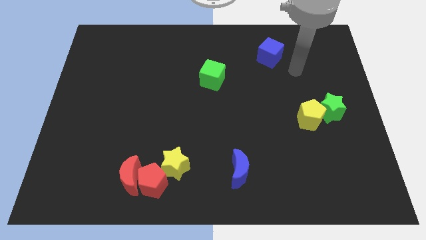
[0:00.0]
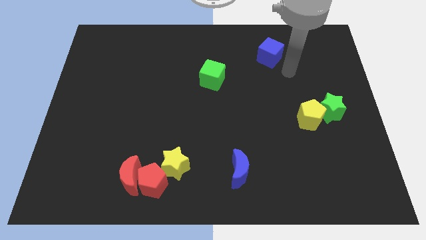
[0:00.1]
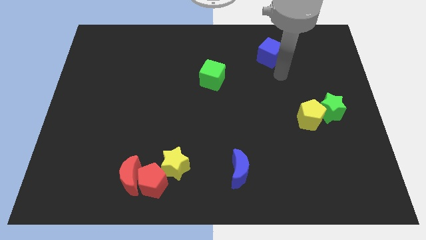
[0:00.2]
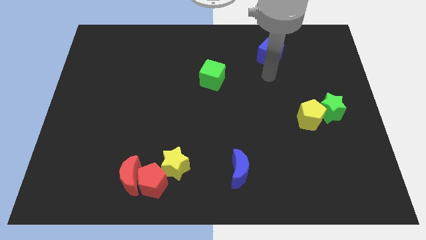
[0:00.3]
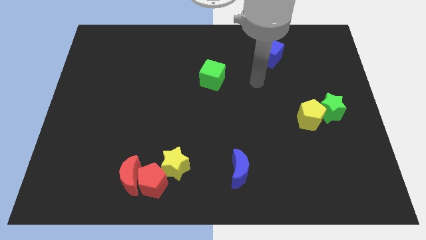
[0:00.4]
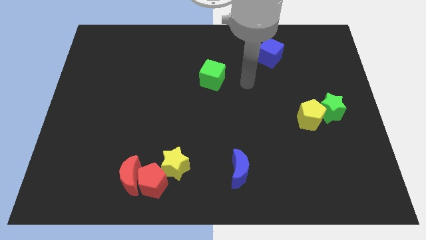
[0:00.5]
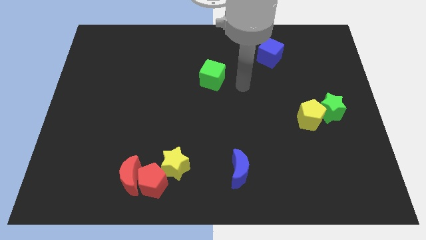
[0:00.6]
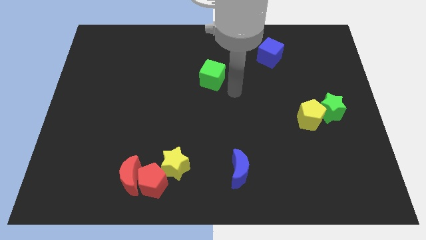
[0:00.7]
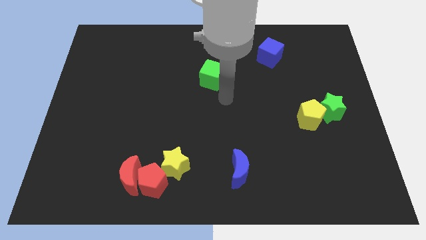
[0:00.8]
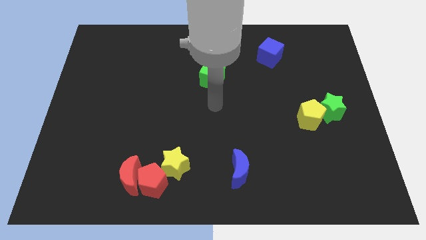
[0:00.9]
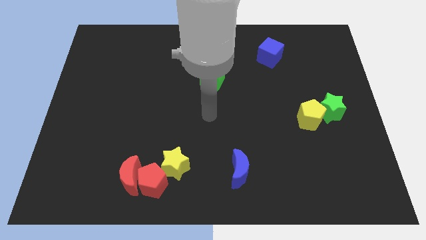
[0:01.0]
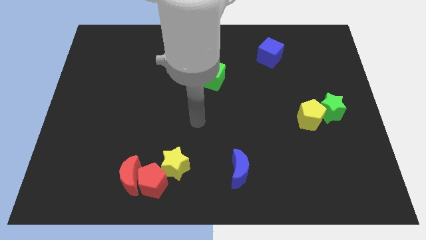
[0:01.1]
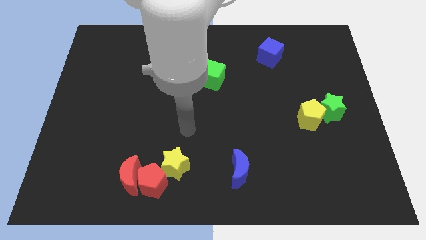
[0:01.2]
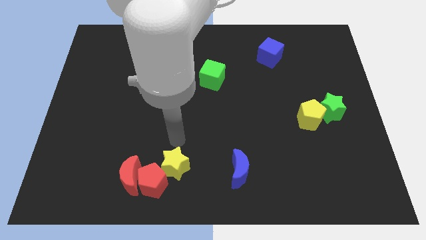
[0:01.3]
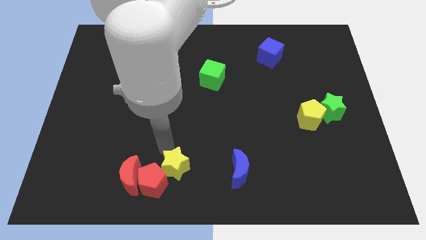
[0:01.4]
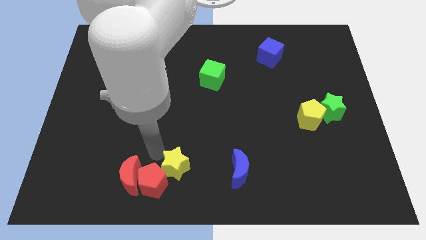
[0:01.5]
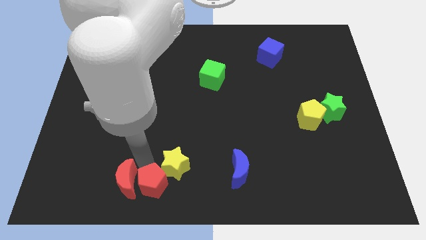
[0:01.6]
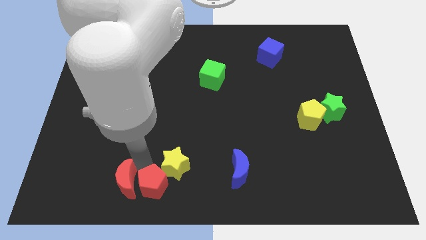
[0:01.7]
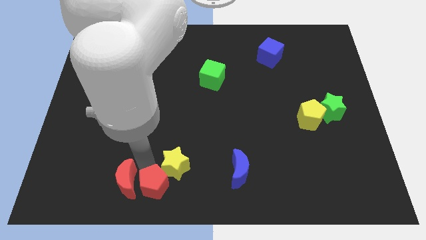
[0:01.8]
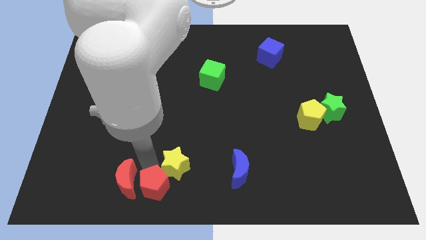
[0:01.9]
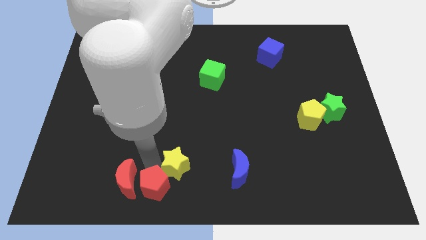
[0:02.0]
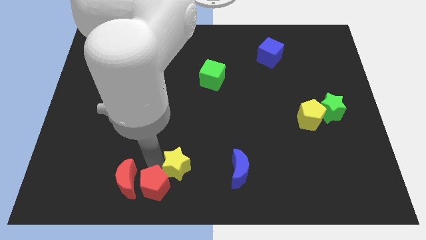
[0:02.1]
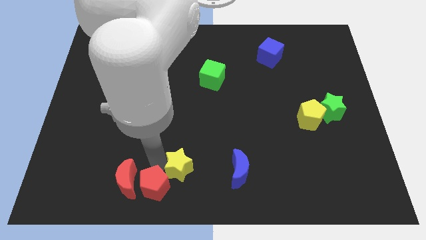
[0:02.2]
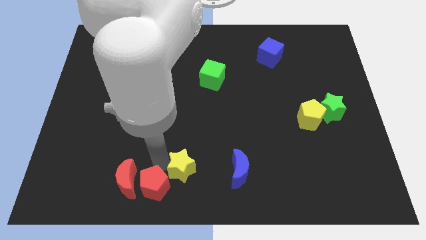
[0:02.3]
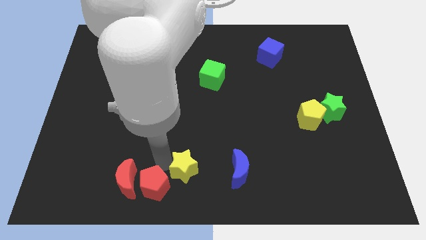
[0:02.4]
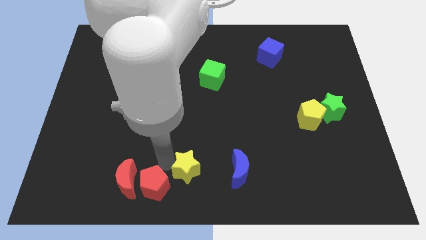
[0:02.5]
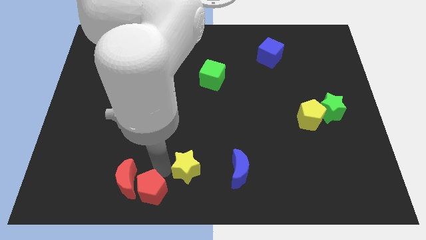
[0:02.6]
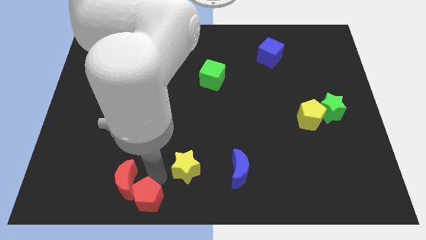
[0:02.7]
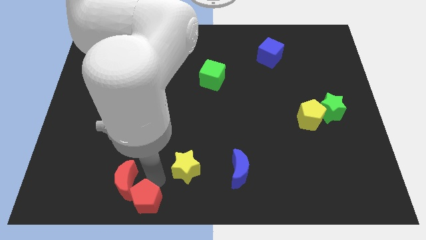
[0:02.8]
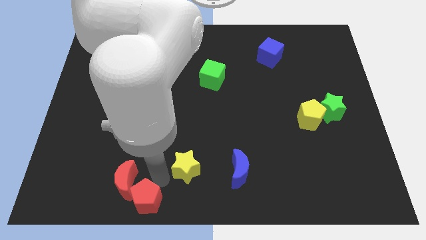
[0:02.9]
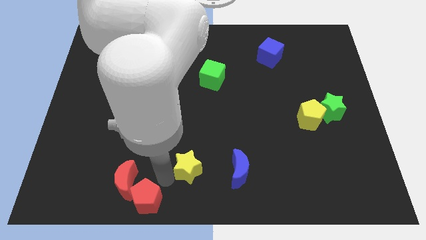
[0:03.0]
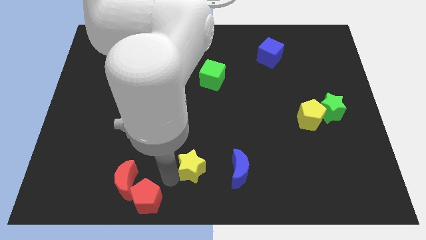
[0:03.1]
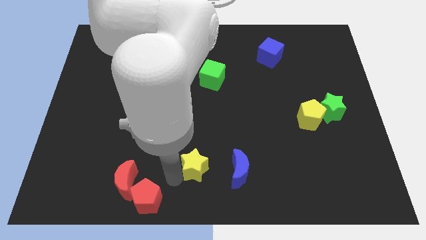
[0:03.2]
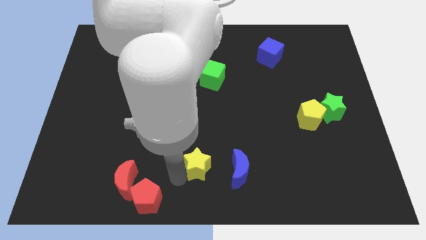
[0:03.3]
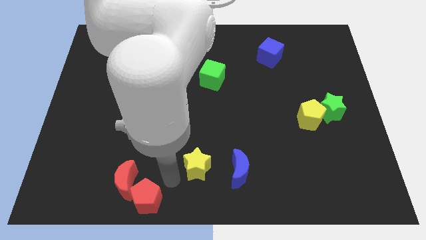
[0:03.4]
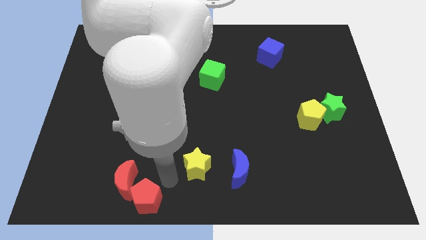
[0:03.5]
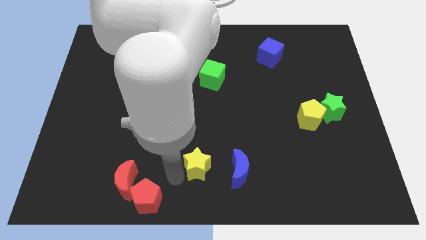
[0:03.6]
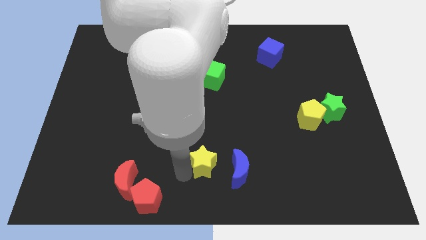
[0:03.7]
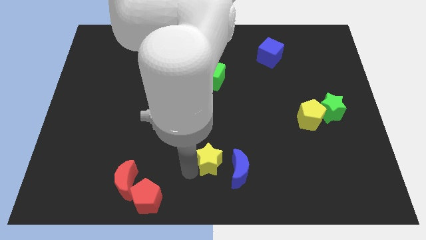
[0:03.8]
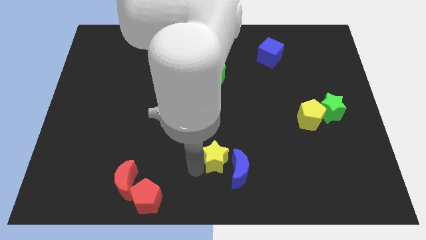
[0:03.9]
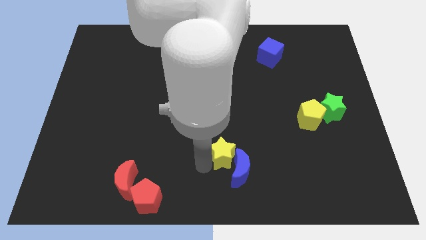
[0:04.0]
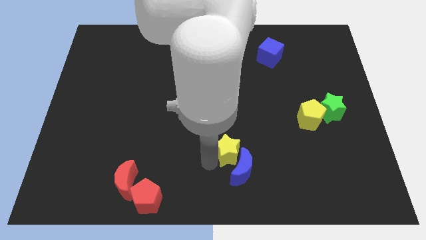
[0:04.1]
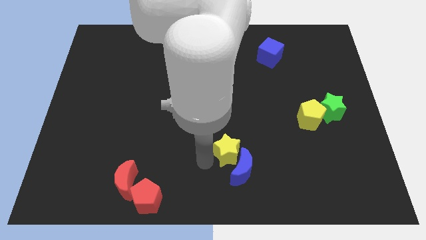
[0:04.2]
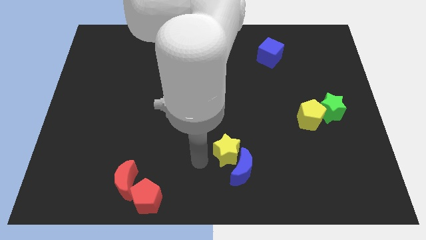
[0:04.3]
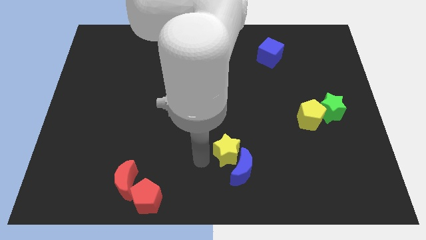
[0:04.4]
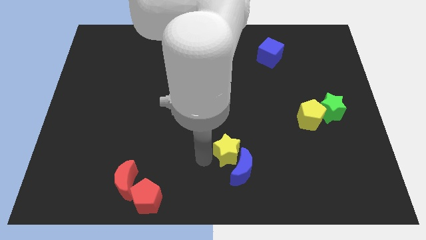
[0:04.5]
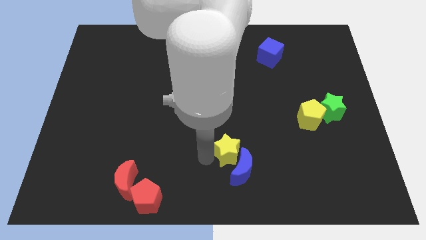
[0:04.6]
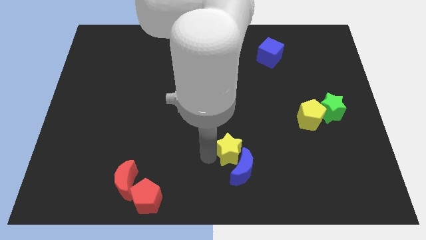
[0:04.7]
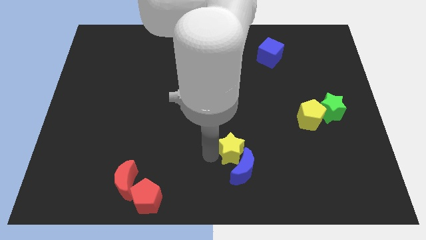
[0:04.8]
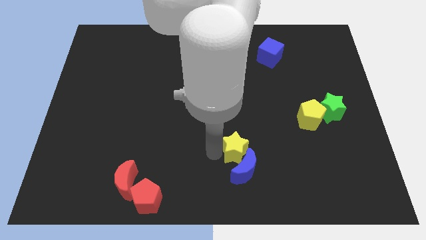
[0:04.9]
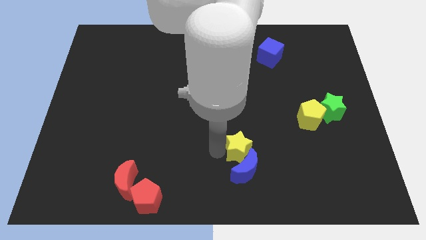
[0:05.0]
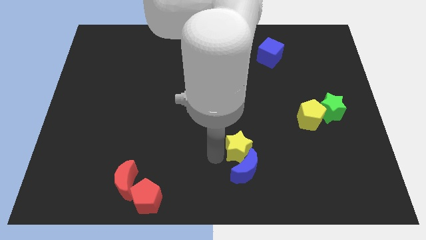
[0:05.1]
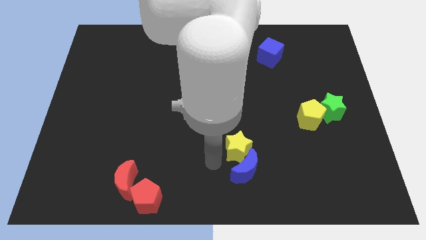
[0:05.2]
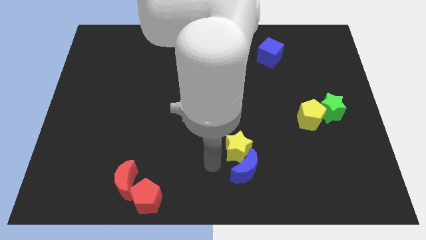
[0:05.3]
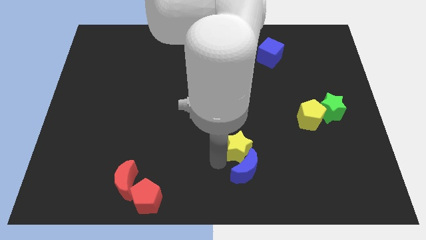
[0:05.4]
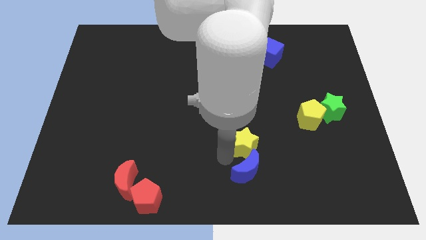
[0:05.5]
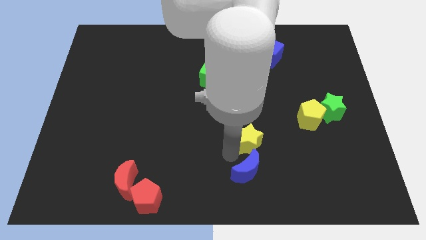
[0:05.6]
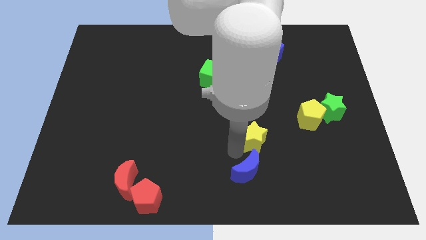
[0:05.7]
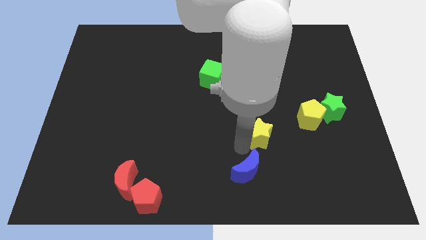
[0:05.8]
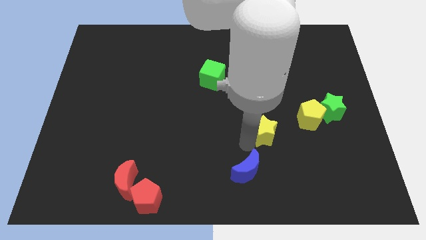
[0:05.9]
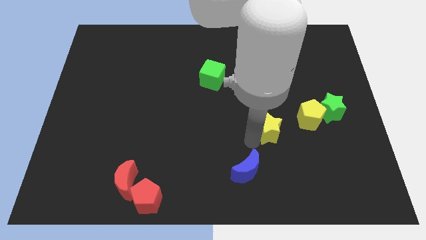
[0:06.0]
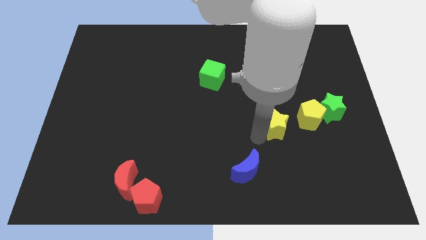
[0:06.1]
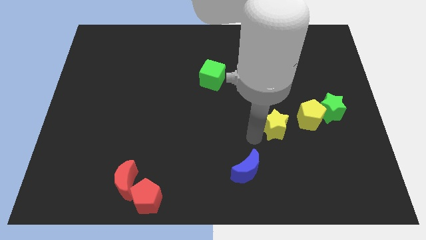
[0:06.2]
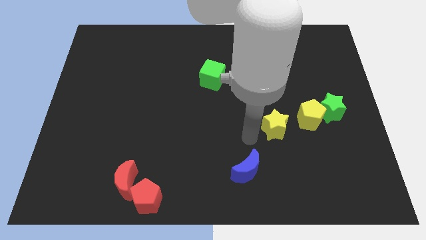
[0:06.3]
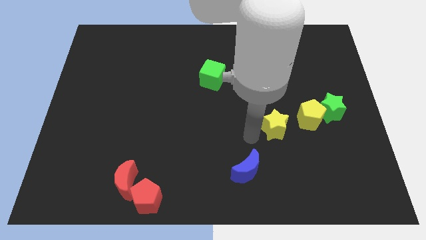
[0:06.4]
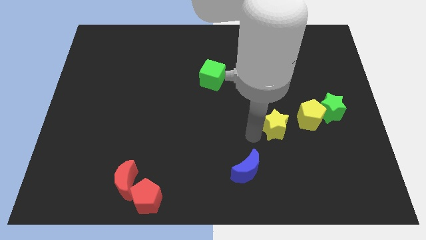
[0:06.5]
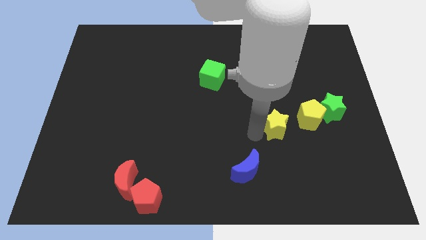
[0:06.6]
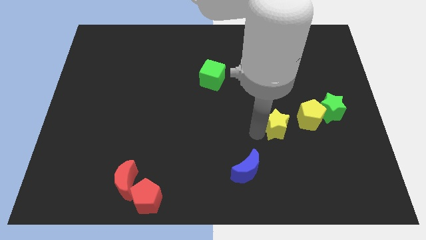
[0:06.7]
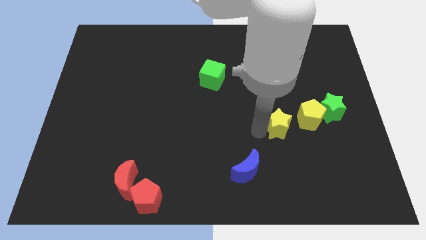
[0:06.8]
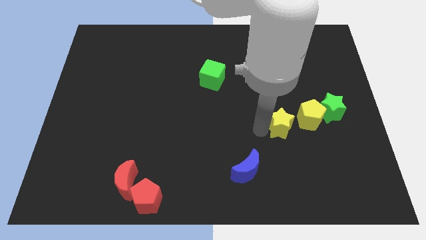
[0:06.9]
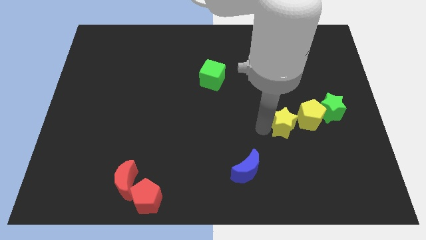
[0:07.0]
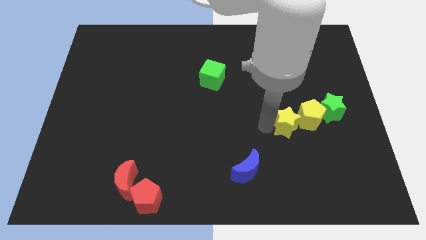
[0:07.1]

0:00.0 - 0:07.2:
move the yellow star next to the yellow pentagon
